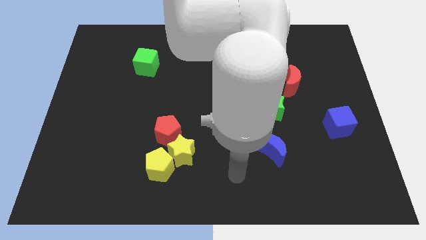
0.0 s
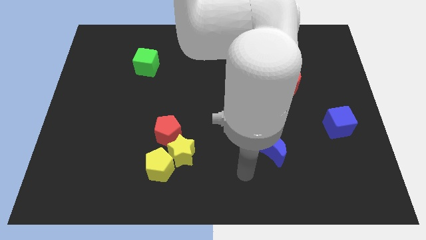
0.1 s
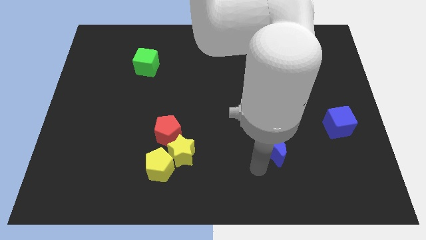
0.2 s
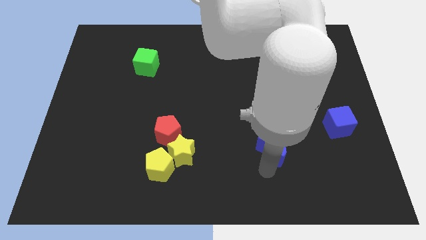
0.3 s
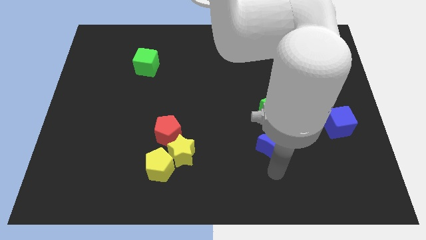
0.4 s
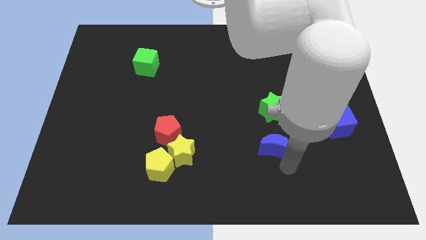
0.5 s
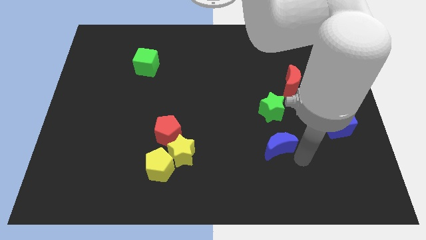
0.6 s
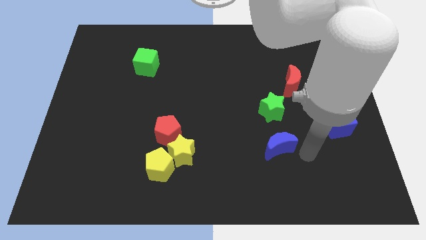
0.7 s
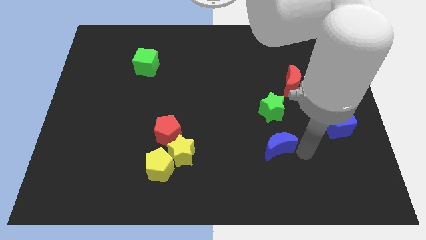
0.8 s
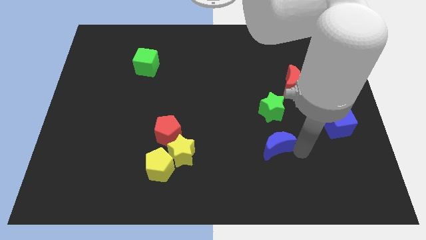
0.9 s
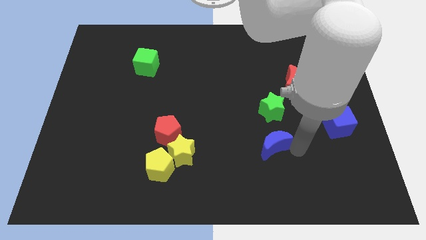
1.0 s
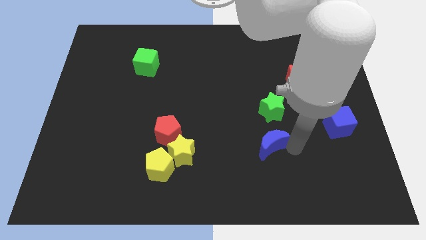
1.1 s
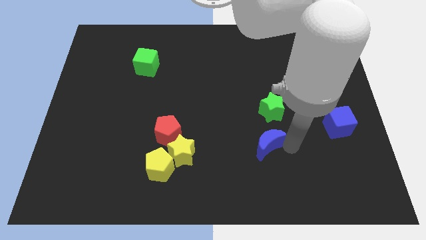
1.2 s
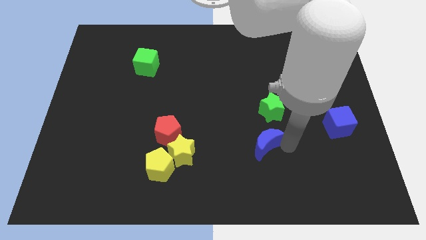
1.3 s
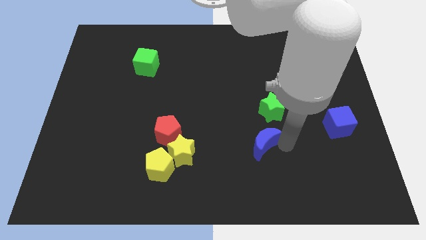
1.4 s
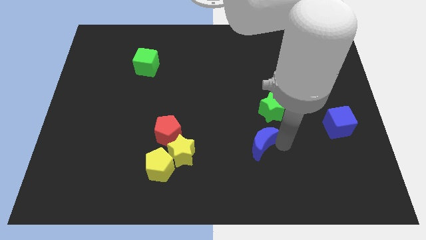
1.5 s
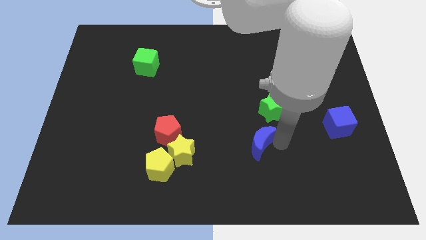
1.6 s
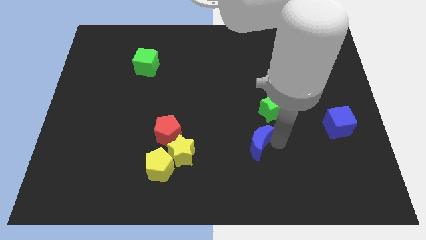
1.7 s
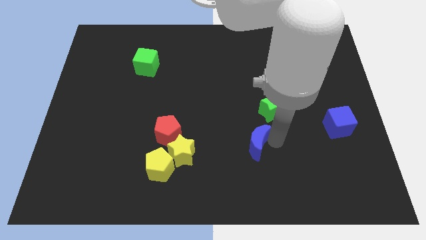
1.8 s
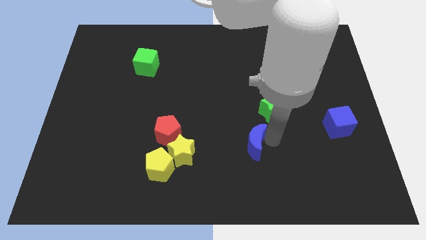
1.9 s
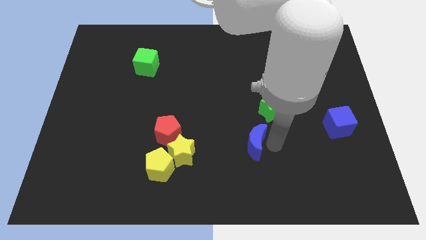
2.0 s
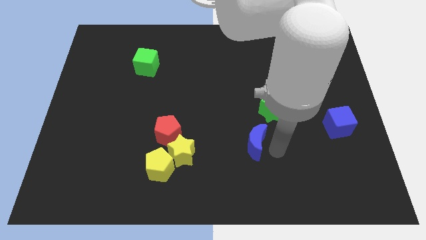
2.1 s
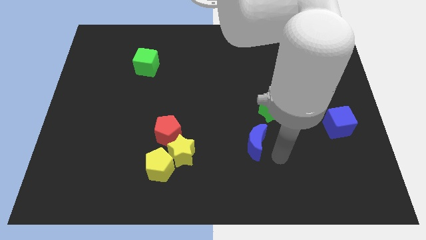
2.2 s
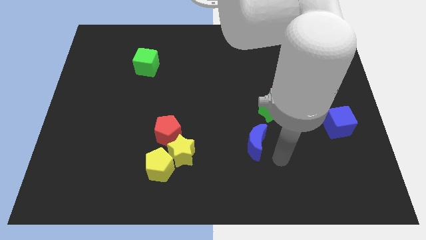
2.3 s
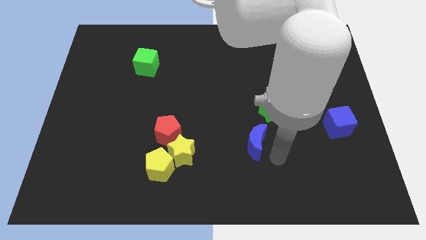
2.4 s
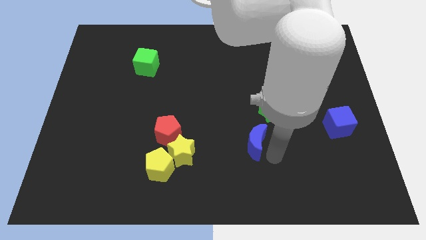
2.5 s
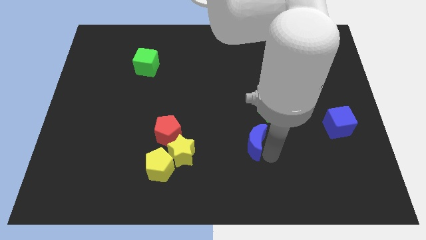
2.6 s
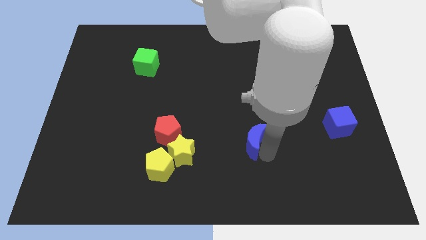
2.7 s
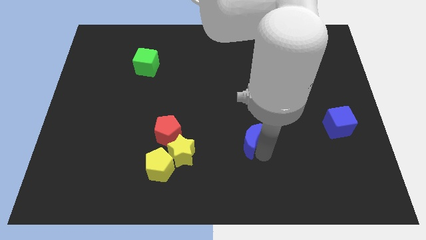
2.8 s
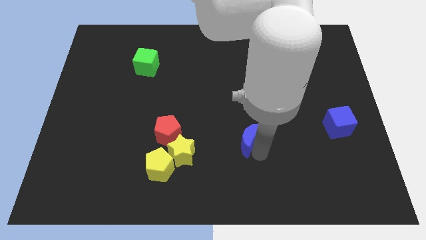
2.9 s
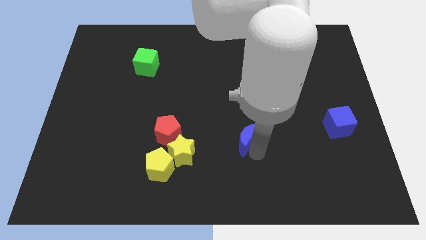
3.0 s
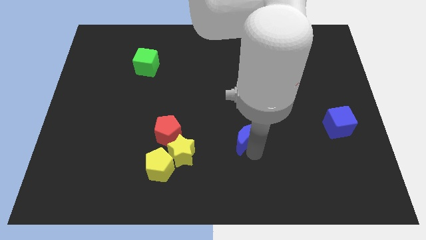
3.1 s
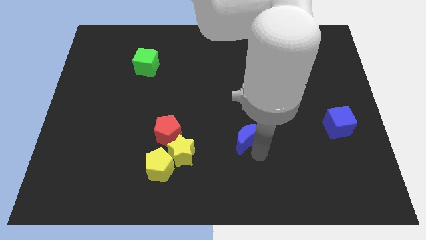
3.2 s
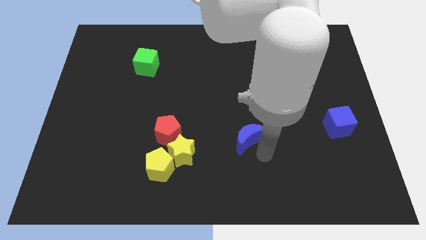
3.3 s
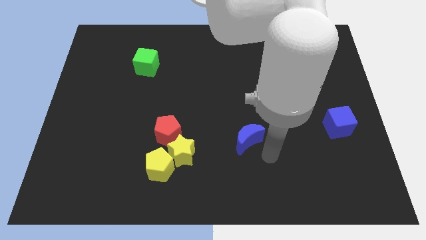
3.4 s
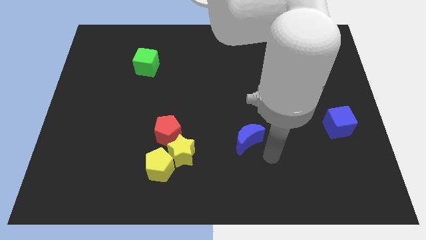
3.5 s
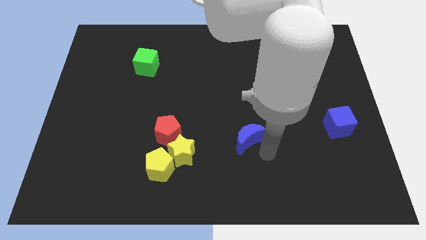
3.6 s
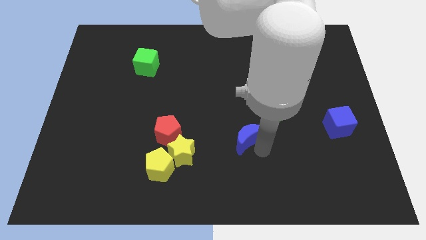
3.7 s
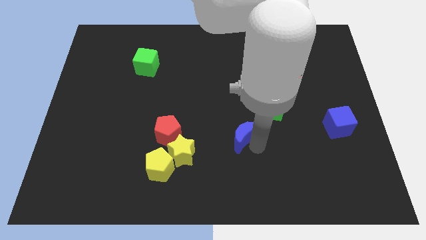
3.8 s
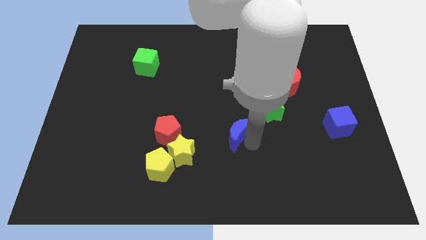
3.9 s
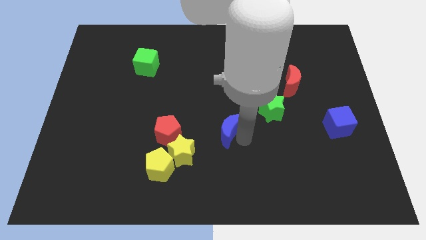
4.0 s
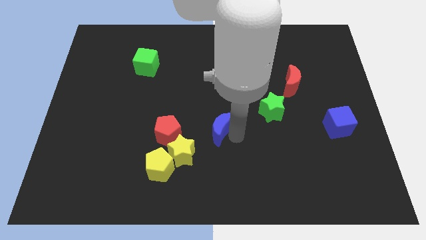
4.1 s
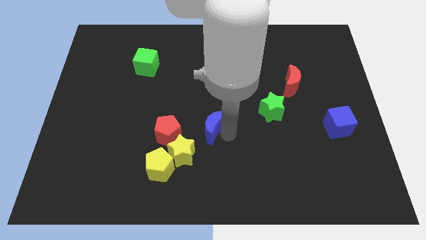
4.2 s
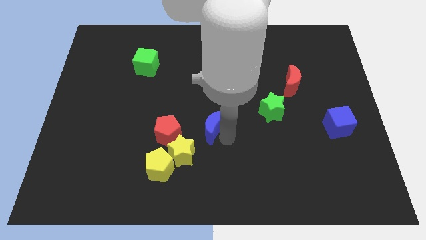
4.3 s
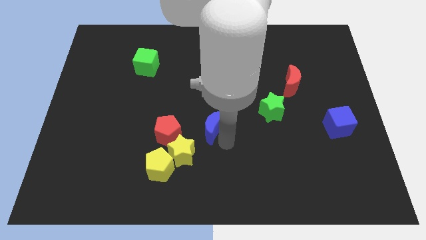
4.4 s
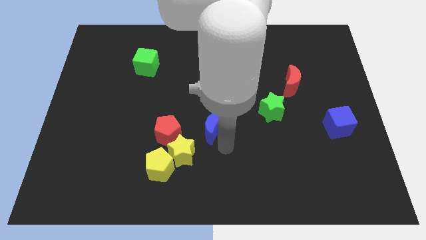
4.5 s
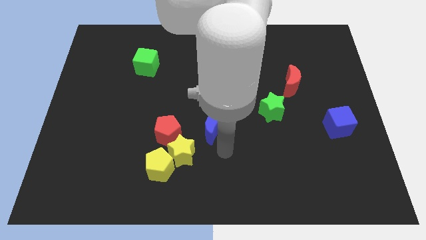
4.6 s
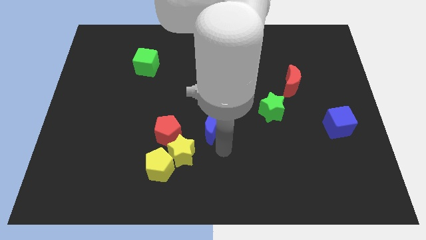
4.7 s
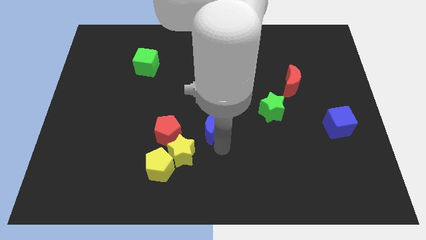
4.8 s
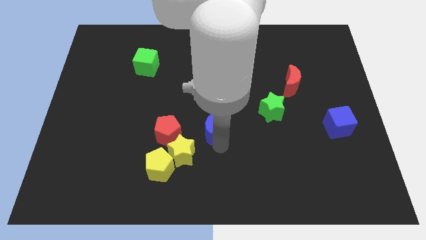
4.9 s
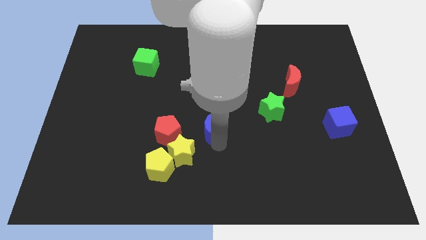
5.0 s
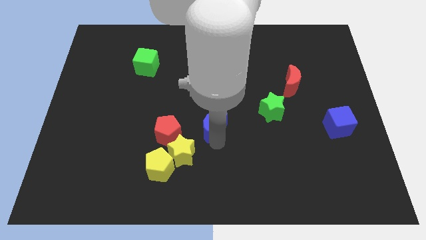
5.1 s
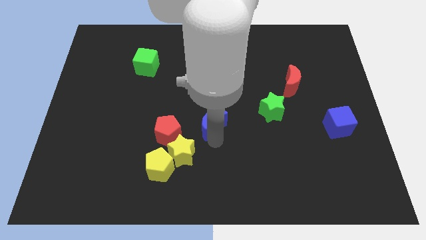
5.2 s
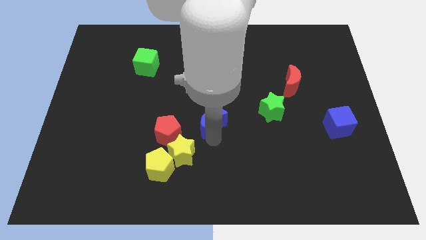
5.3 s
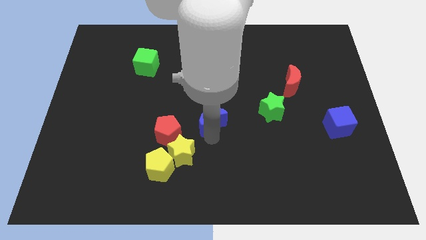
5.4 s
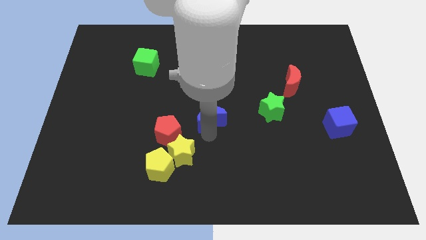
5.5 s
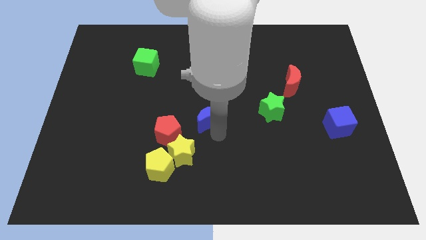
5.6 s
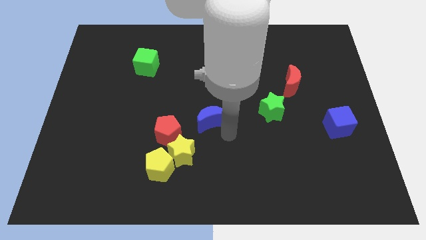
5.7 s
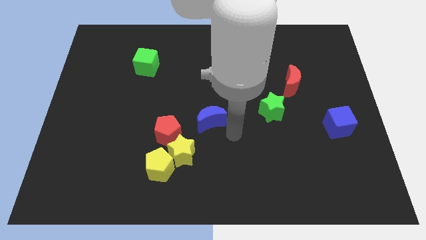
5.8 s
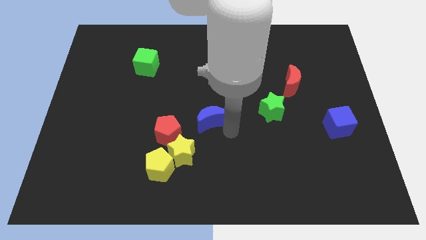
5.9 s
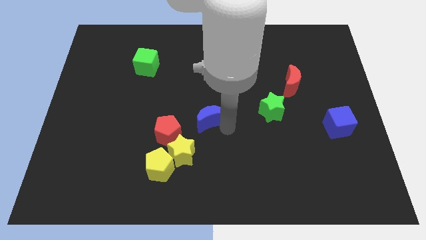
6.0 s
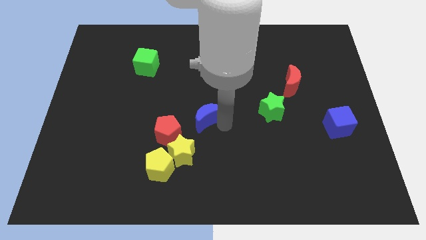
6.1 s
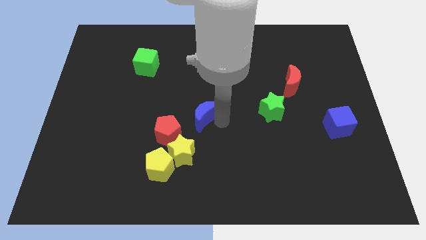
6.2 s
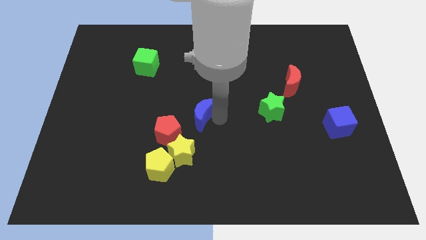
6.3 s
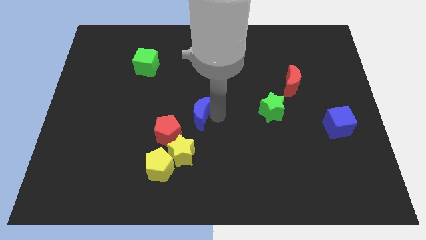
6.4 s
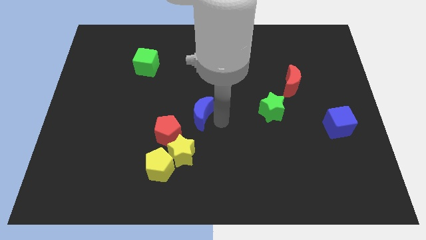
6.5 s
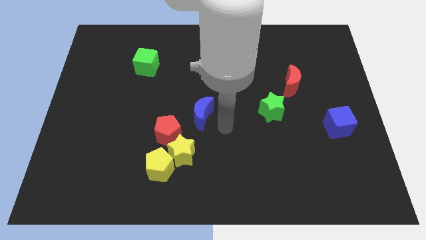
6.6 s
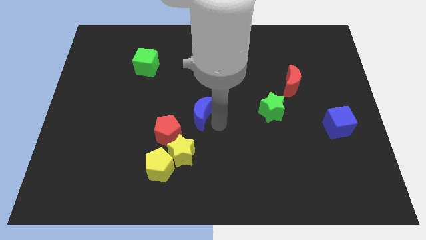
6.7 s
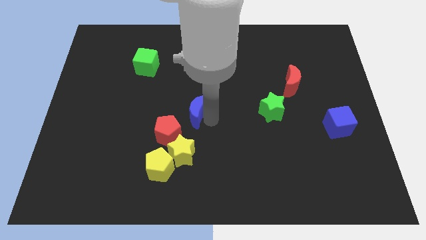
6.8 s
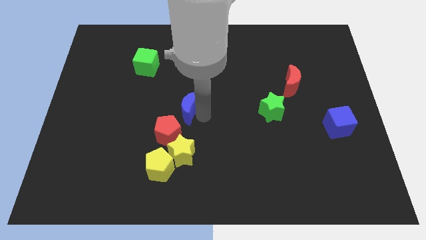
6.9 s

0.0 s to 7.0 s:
move the blue moon to the top side of the red pentagon

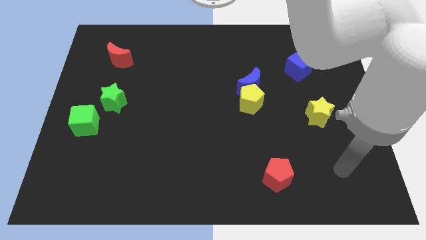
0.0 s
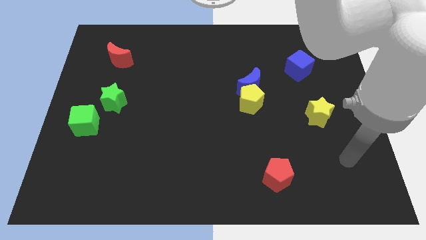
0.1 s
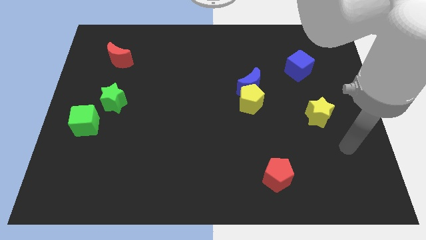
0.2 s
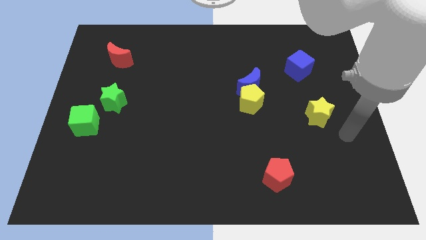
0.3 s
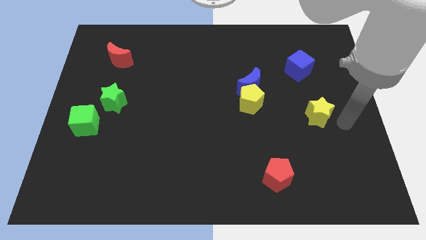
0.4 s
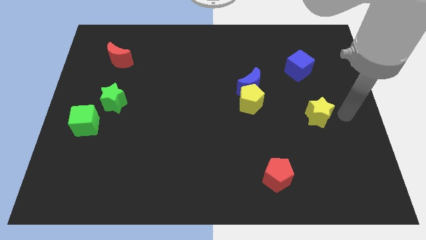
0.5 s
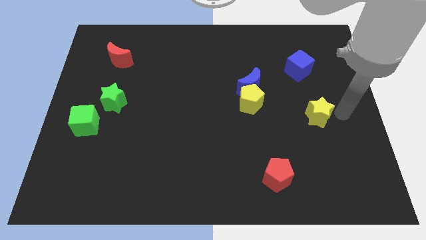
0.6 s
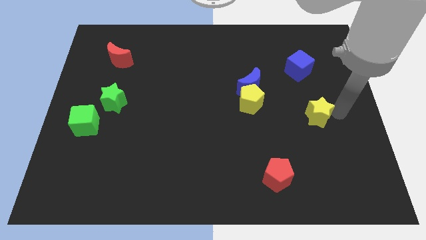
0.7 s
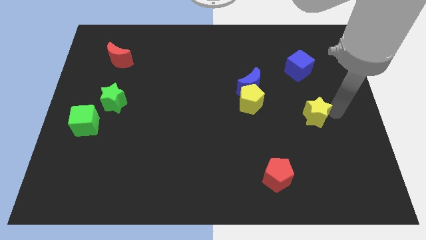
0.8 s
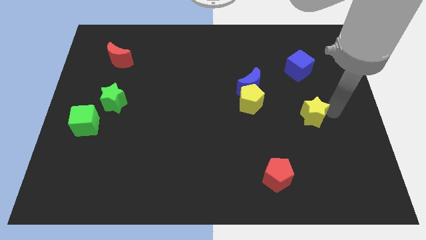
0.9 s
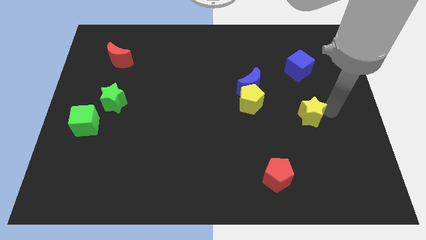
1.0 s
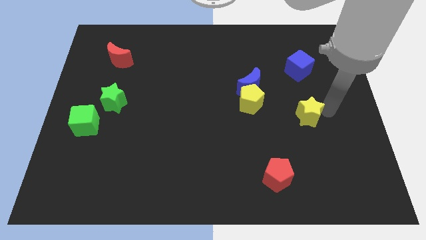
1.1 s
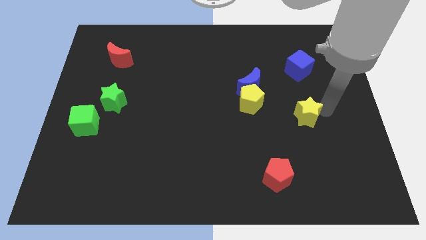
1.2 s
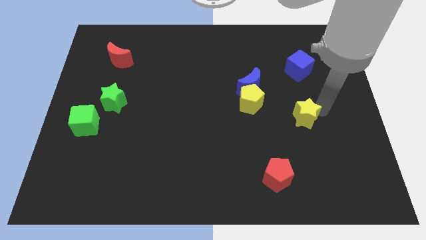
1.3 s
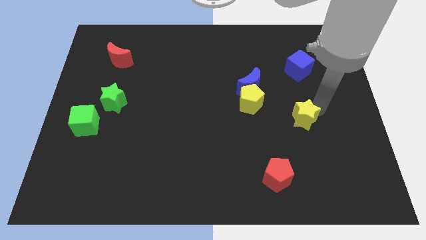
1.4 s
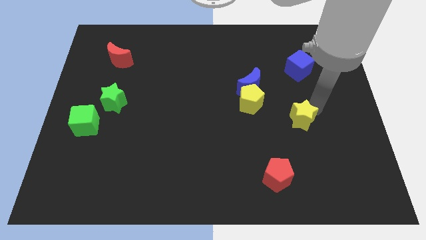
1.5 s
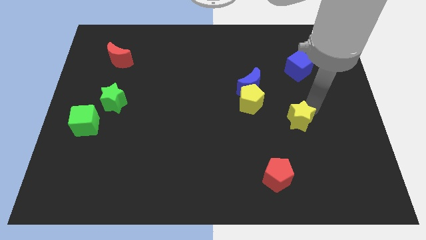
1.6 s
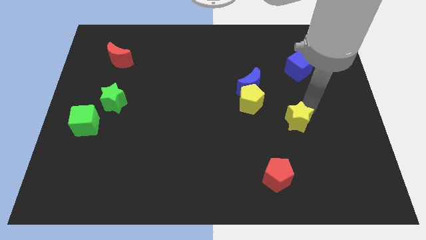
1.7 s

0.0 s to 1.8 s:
move the yellow star to the bottom right side of the yellow pentagon
